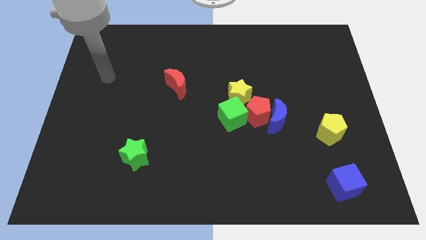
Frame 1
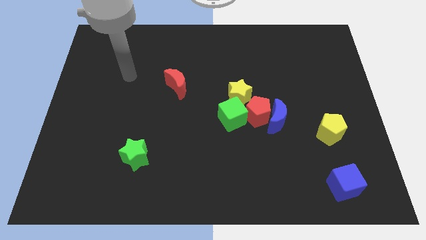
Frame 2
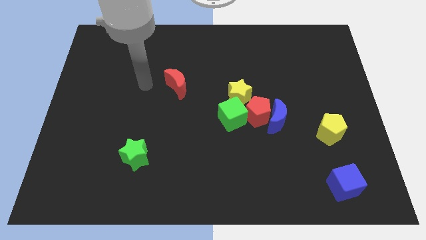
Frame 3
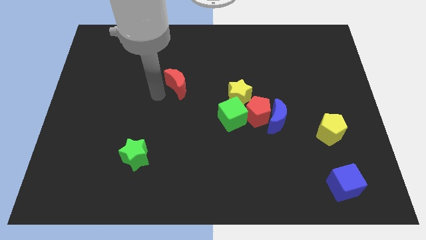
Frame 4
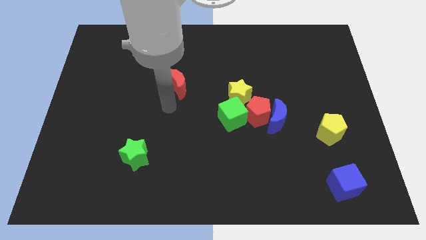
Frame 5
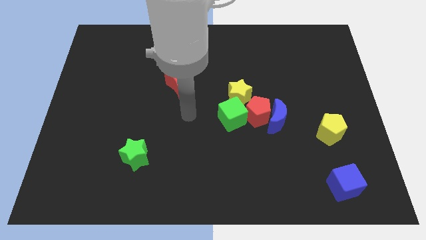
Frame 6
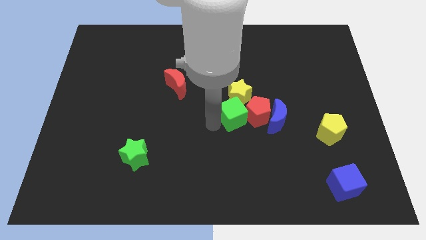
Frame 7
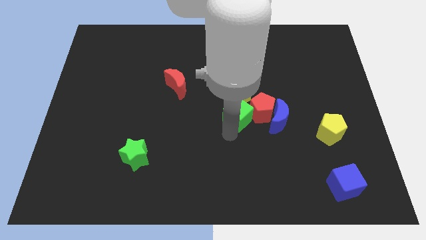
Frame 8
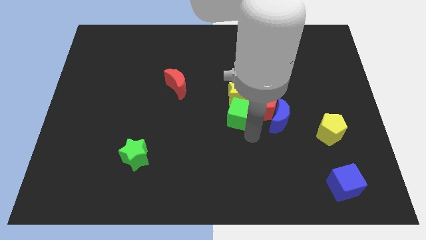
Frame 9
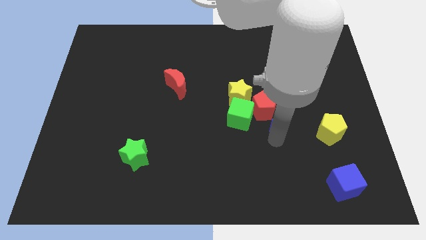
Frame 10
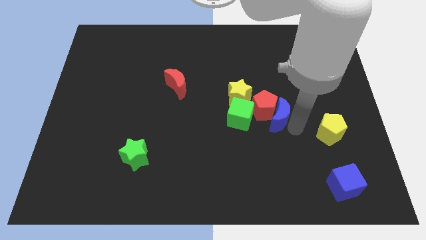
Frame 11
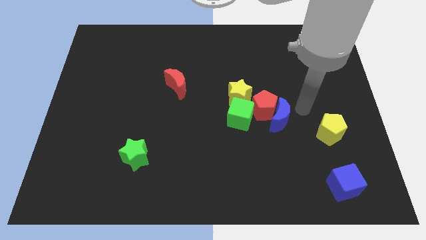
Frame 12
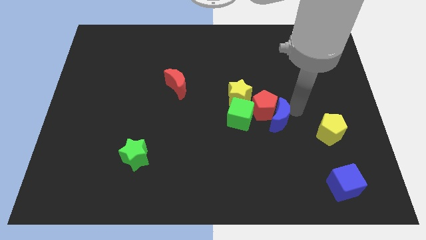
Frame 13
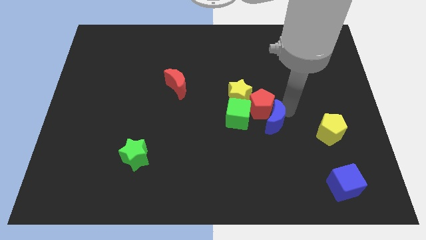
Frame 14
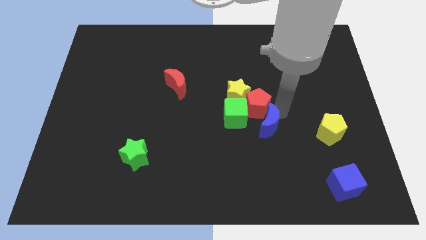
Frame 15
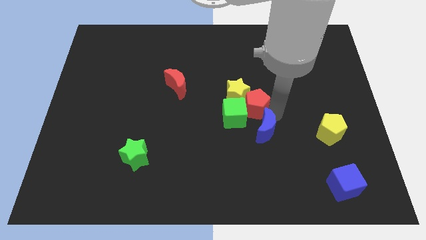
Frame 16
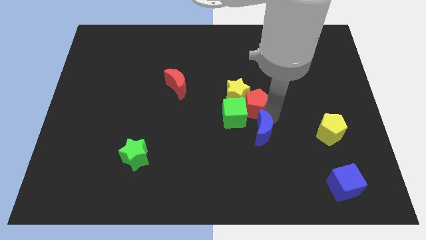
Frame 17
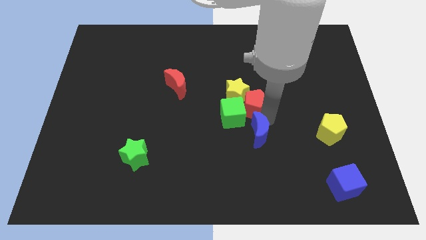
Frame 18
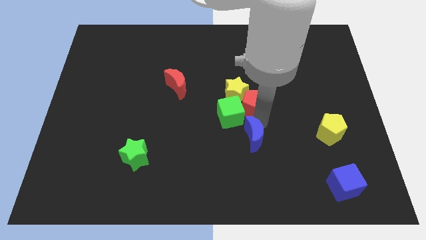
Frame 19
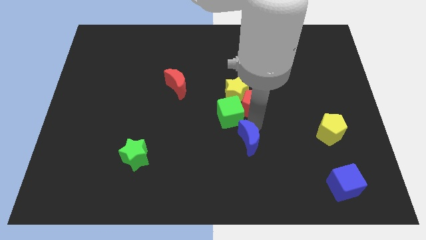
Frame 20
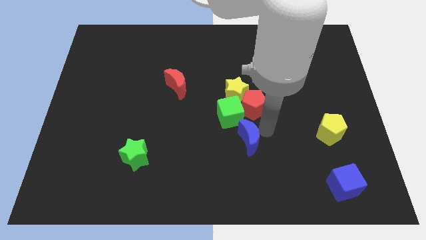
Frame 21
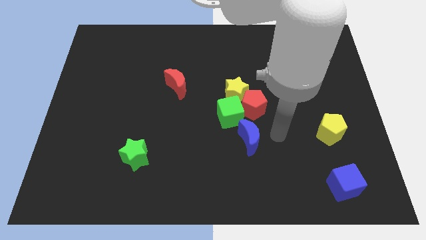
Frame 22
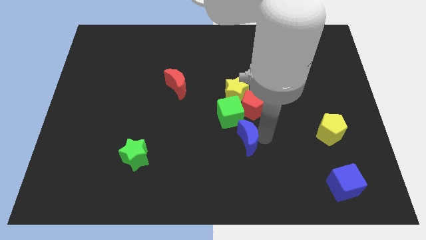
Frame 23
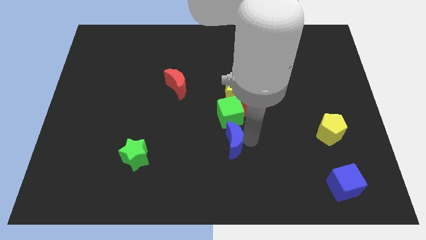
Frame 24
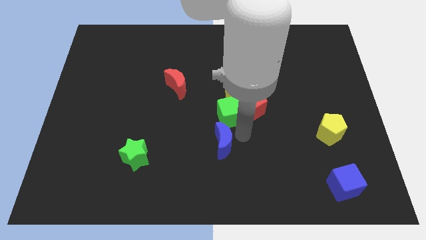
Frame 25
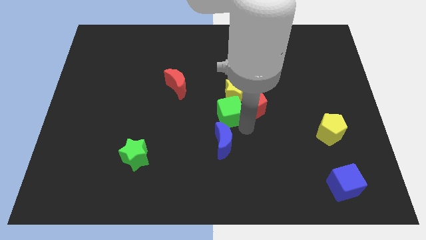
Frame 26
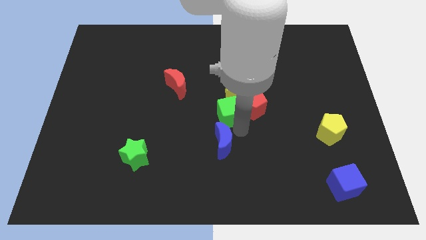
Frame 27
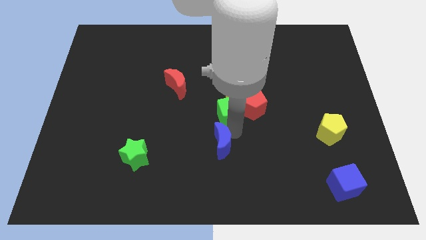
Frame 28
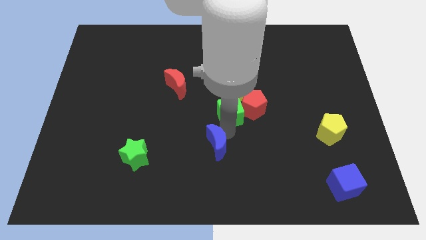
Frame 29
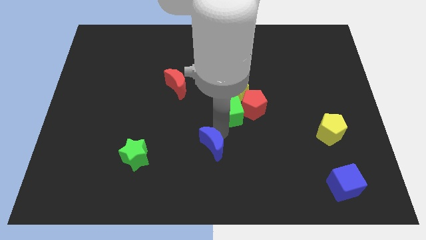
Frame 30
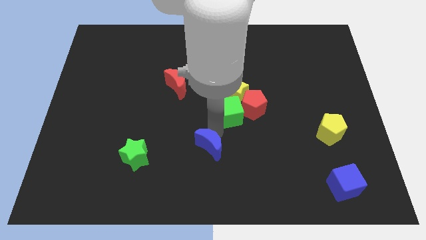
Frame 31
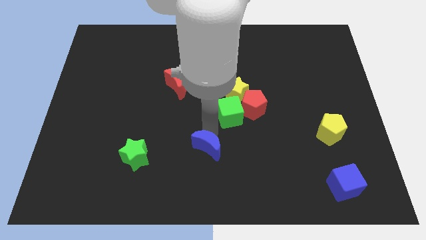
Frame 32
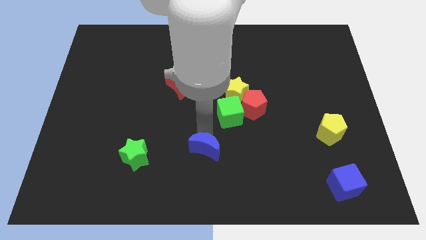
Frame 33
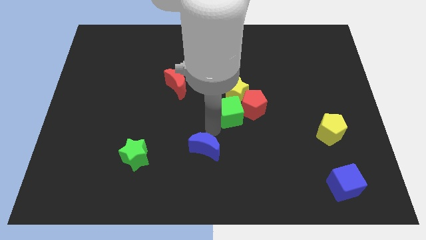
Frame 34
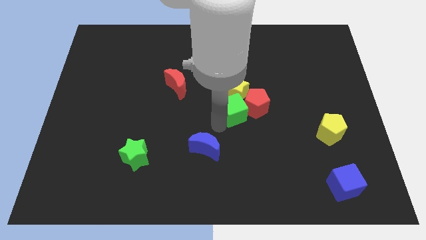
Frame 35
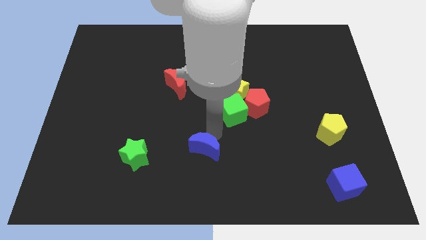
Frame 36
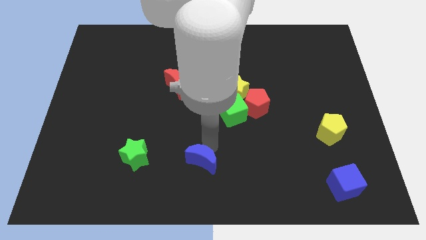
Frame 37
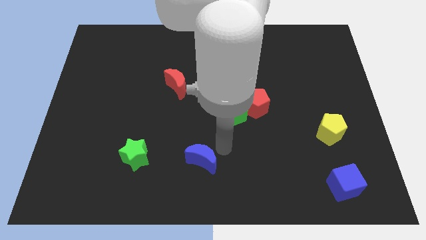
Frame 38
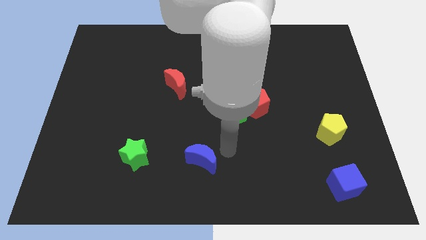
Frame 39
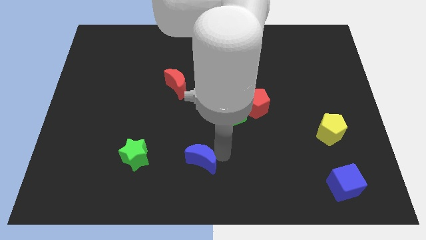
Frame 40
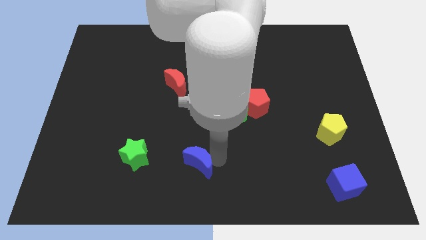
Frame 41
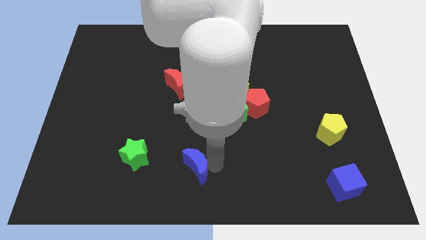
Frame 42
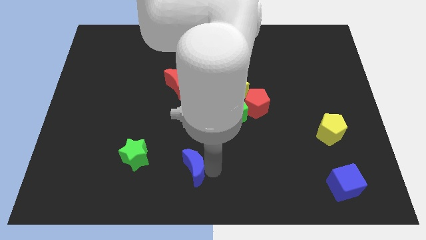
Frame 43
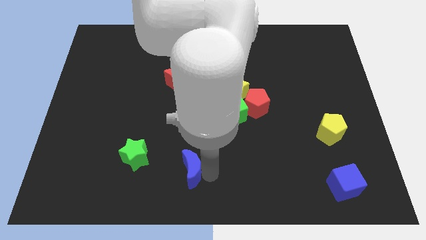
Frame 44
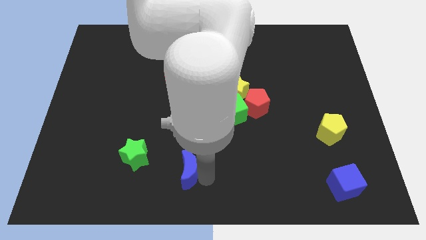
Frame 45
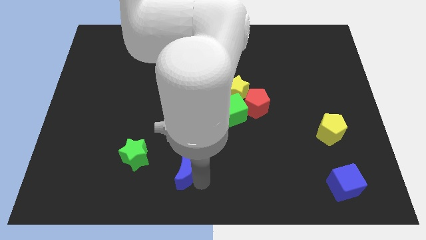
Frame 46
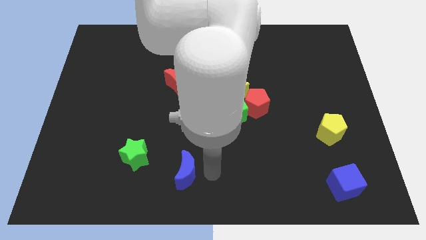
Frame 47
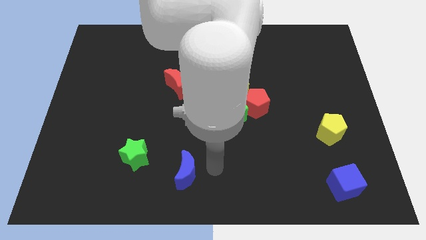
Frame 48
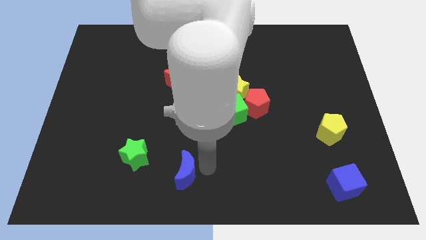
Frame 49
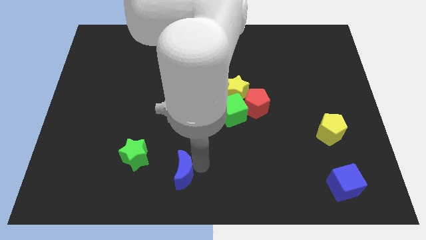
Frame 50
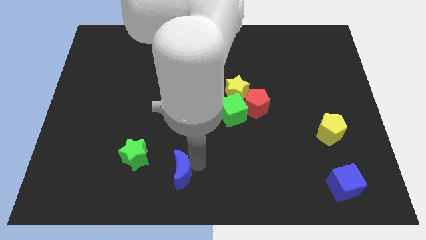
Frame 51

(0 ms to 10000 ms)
slide the blue moon diagonally down and to the right of the green star

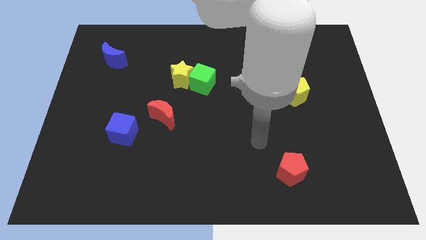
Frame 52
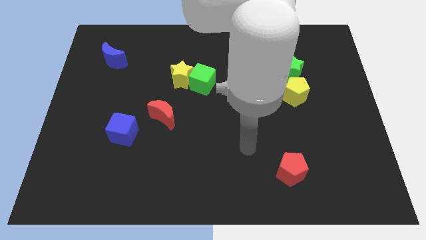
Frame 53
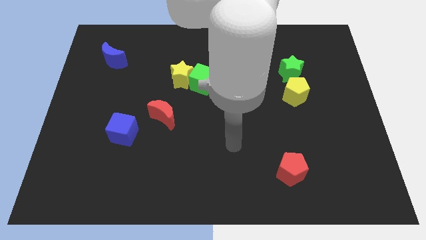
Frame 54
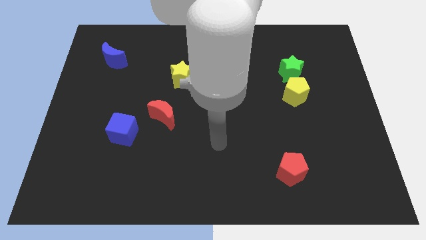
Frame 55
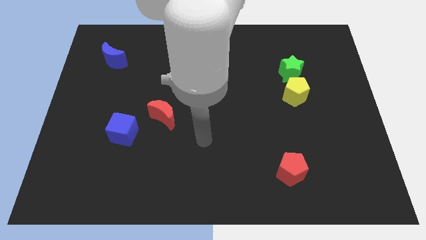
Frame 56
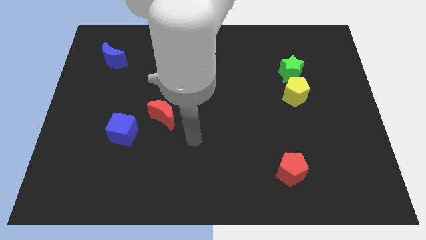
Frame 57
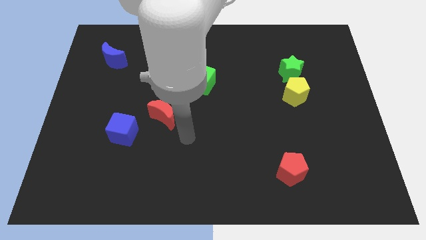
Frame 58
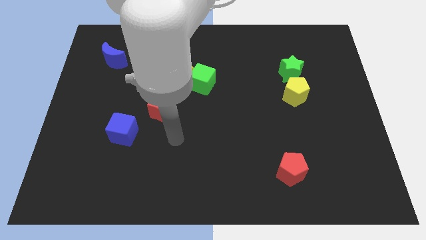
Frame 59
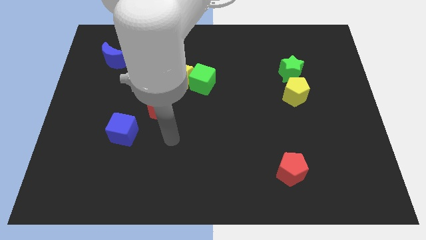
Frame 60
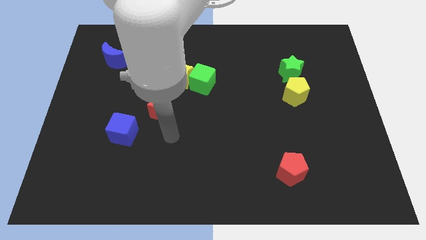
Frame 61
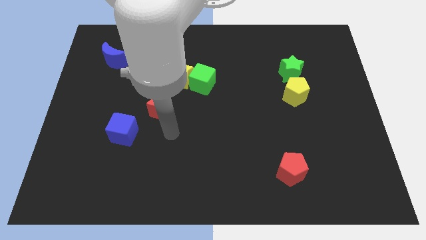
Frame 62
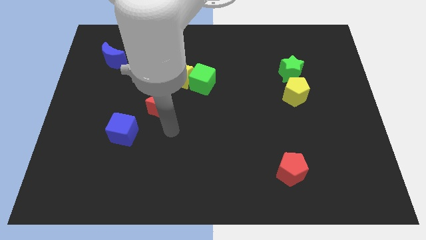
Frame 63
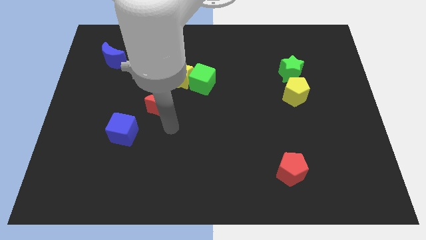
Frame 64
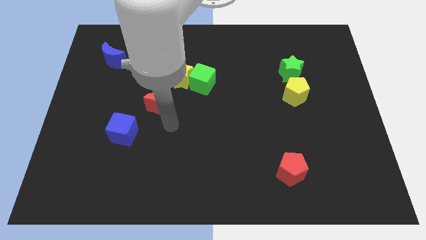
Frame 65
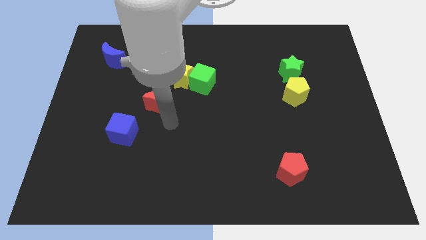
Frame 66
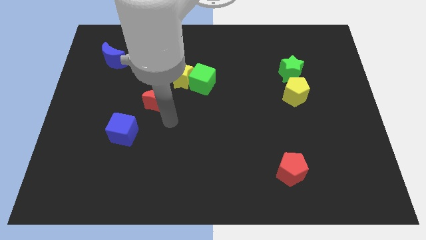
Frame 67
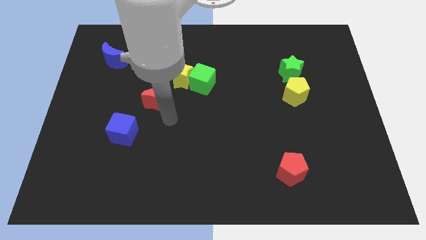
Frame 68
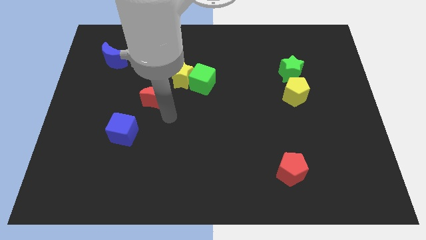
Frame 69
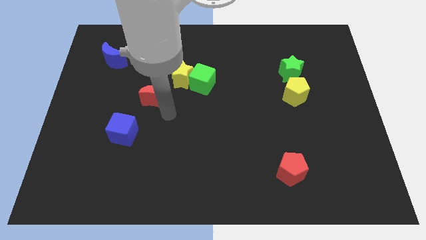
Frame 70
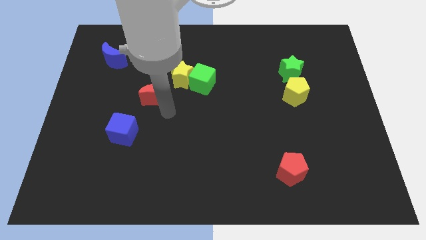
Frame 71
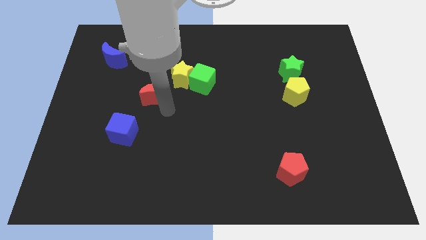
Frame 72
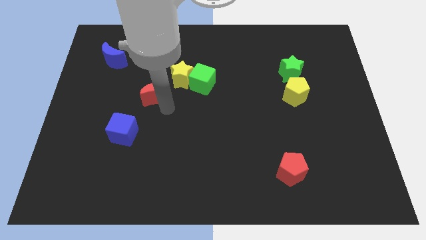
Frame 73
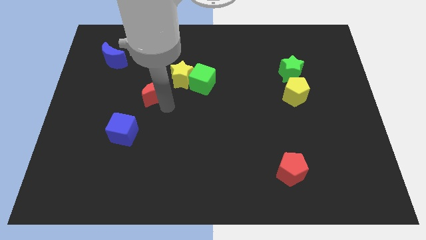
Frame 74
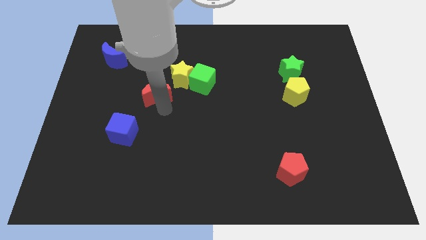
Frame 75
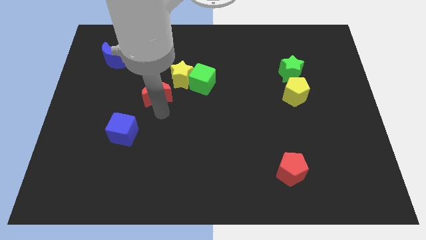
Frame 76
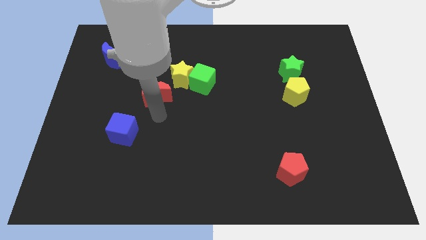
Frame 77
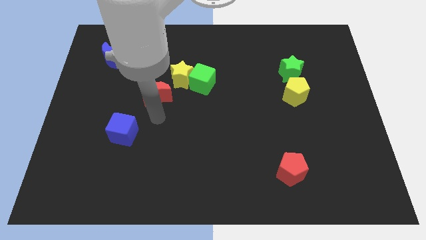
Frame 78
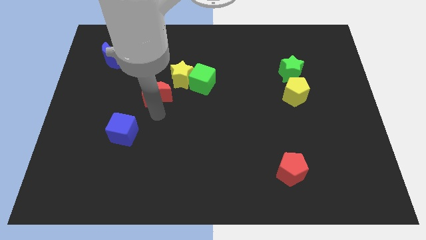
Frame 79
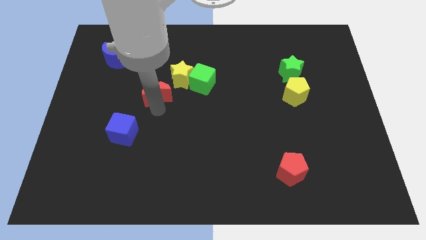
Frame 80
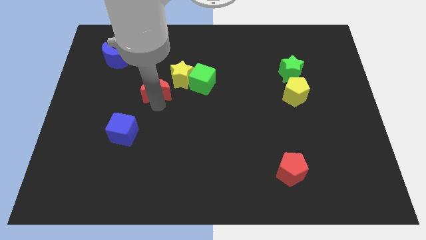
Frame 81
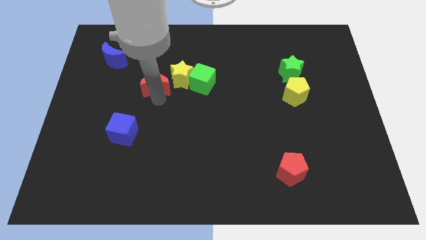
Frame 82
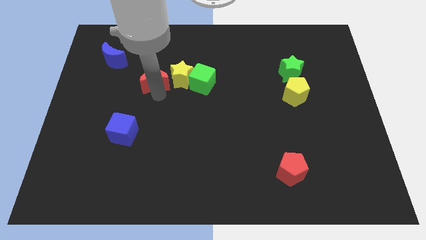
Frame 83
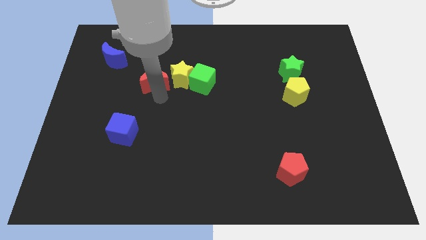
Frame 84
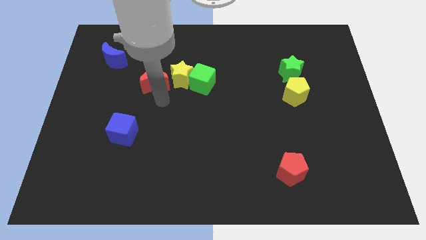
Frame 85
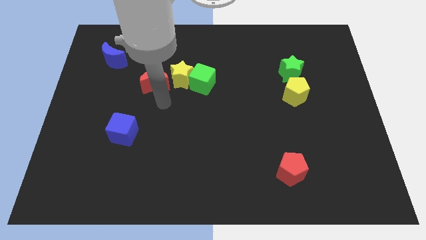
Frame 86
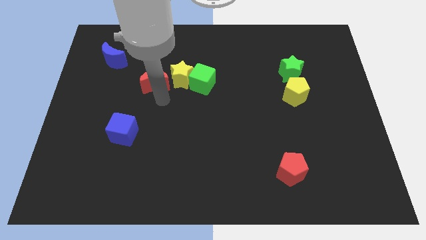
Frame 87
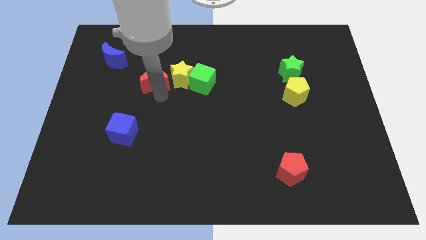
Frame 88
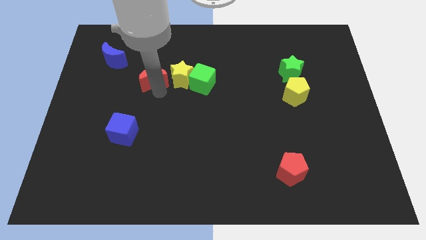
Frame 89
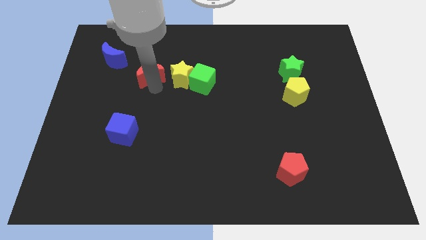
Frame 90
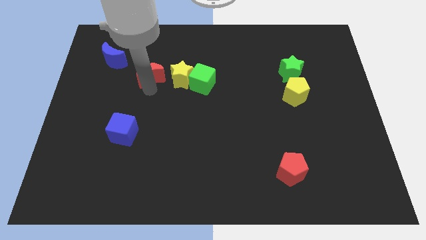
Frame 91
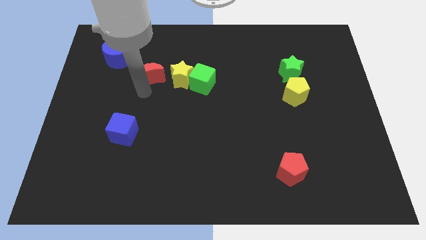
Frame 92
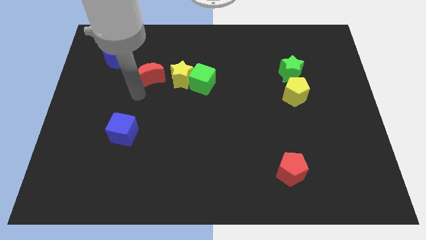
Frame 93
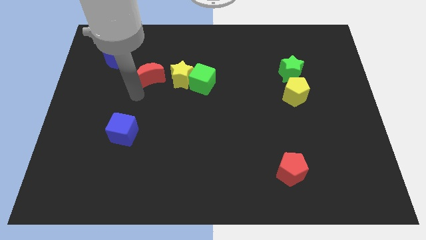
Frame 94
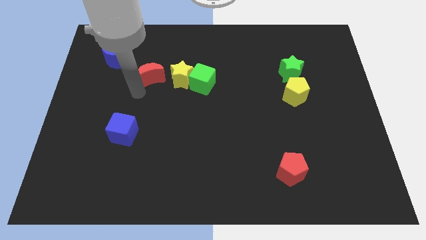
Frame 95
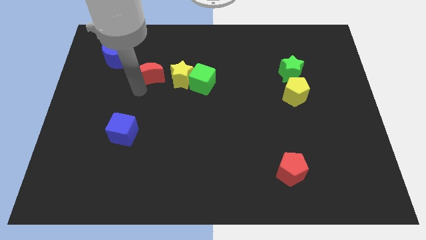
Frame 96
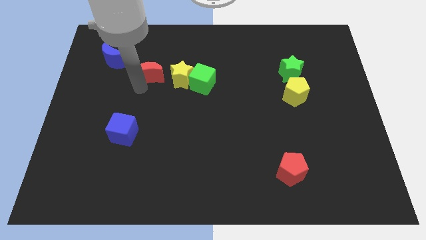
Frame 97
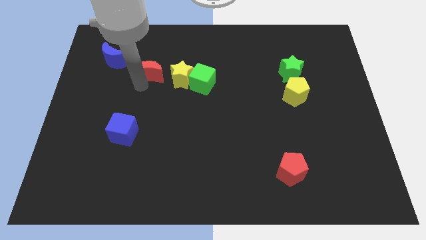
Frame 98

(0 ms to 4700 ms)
push the red moon to the top left side of the yellow star
